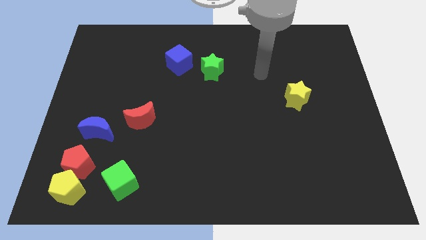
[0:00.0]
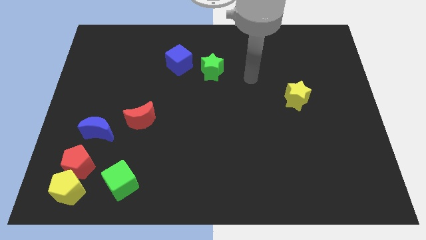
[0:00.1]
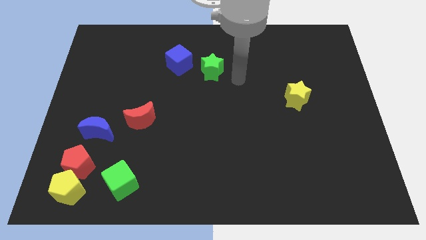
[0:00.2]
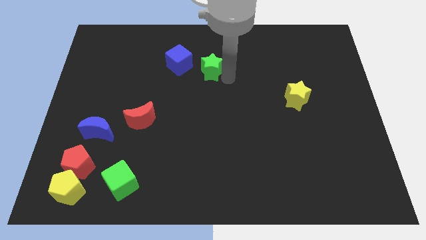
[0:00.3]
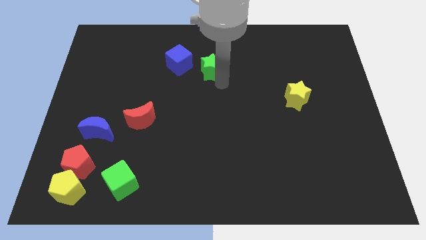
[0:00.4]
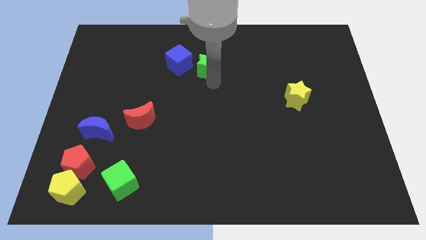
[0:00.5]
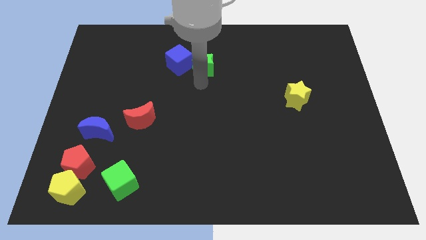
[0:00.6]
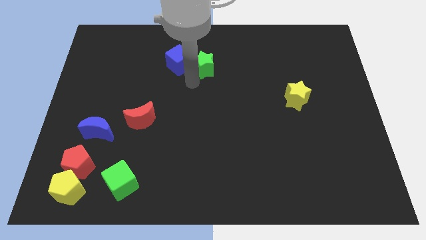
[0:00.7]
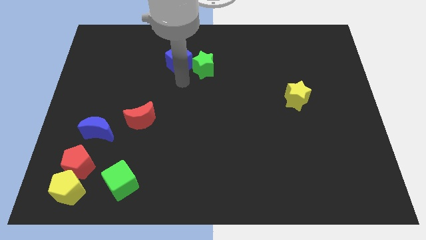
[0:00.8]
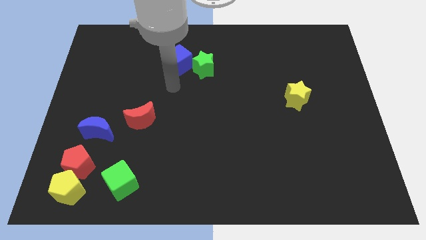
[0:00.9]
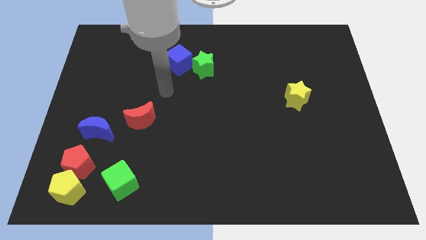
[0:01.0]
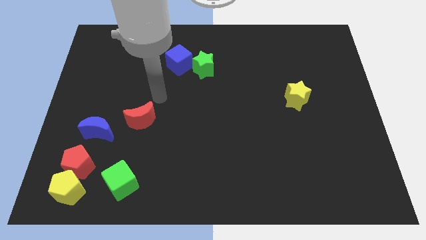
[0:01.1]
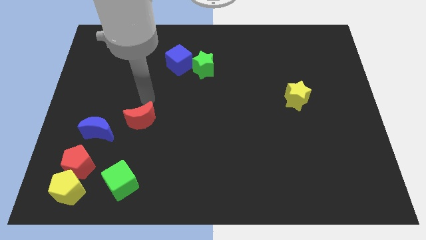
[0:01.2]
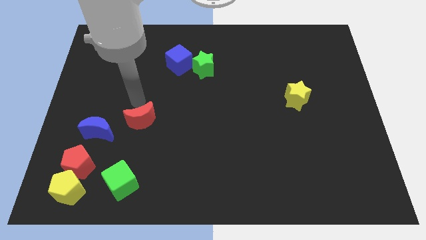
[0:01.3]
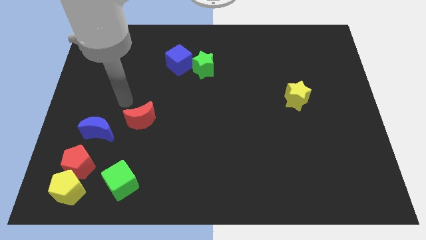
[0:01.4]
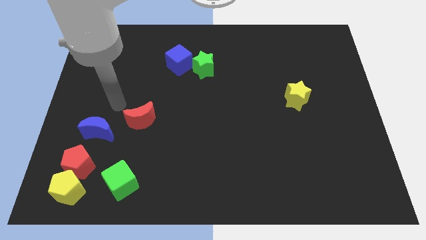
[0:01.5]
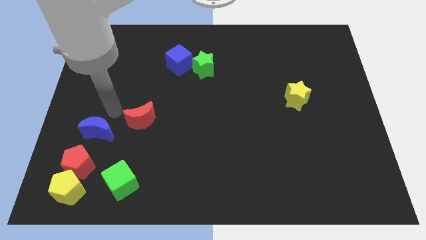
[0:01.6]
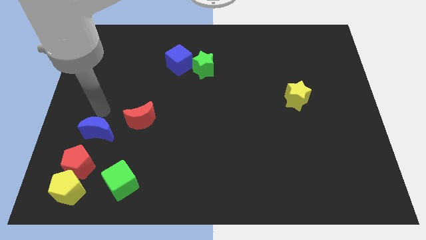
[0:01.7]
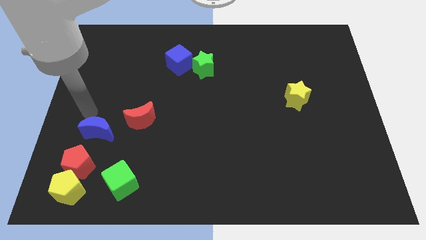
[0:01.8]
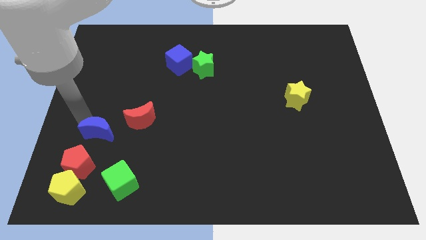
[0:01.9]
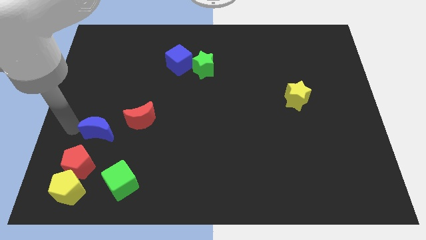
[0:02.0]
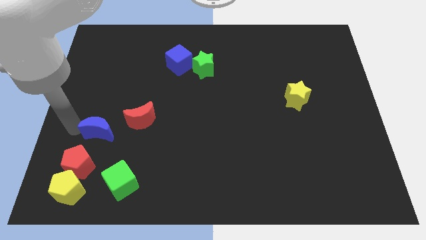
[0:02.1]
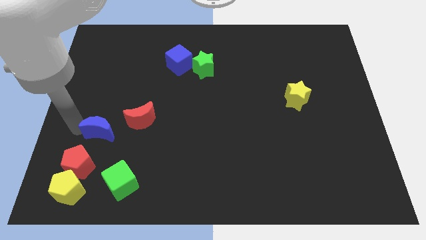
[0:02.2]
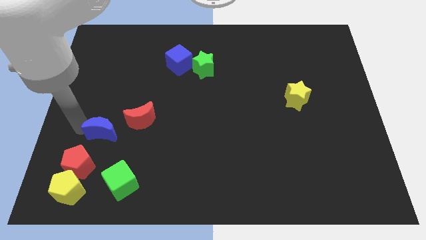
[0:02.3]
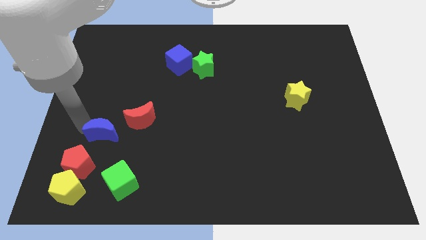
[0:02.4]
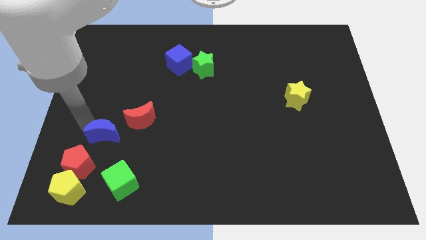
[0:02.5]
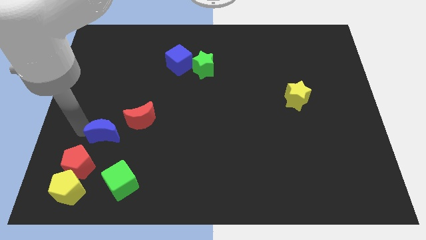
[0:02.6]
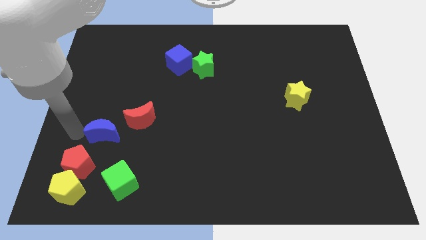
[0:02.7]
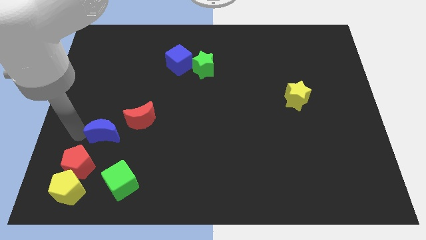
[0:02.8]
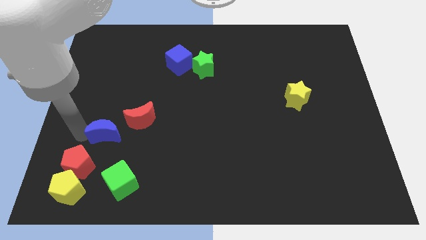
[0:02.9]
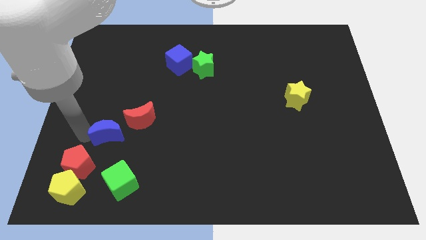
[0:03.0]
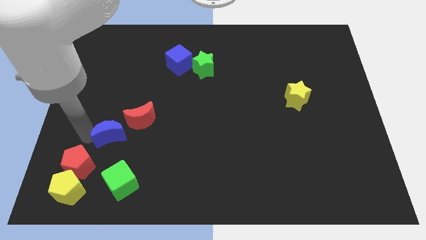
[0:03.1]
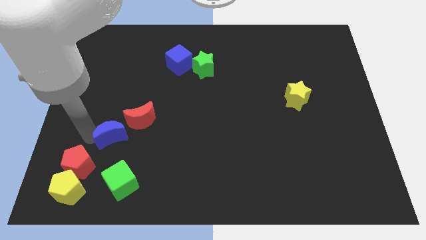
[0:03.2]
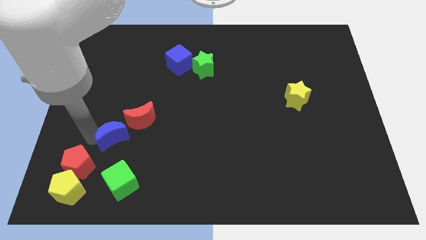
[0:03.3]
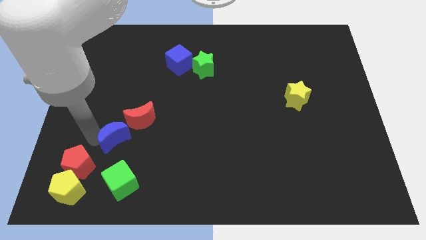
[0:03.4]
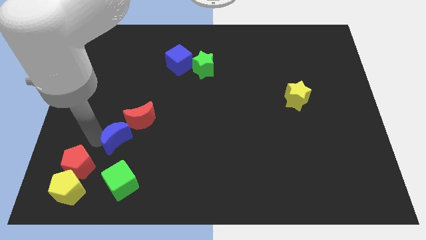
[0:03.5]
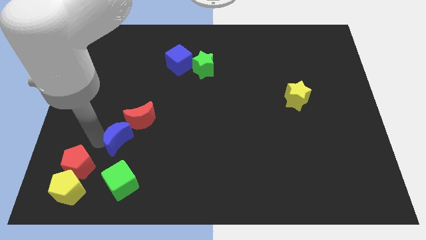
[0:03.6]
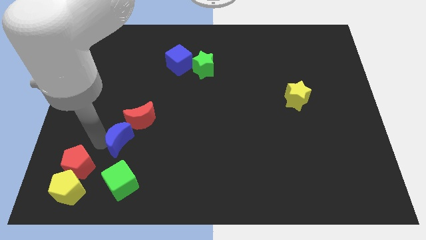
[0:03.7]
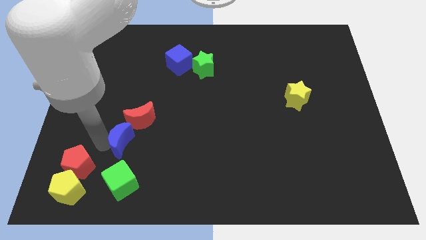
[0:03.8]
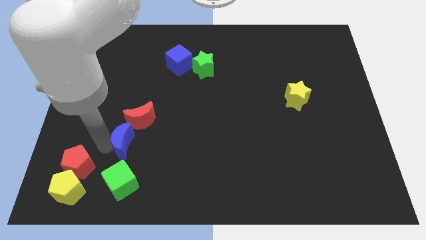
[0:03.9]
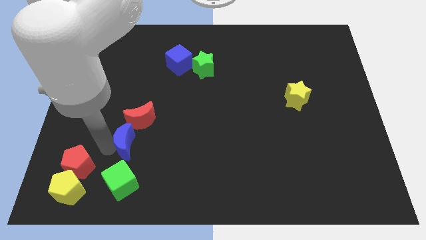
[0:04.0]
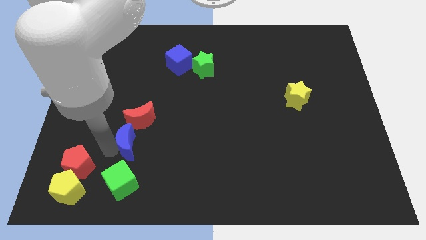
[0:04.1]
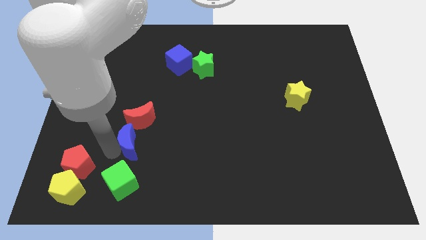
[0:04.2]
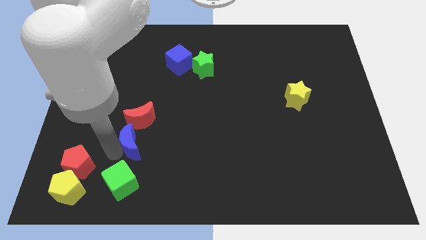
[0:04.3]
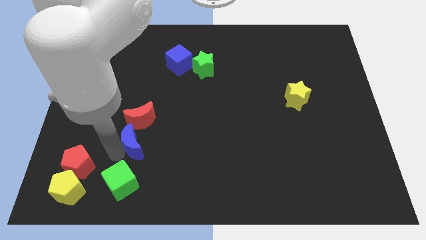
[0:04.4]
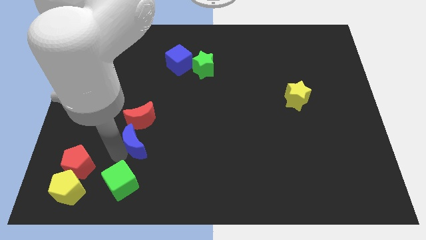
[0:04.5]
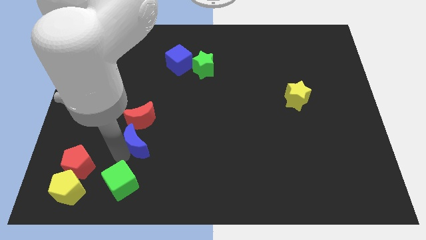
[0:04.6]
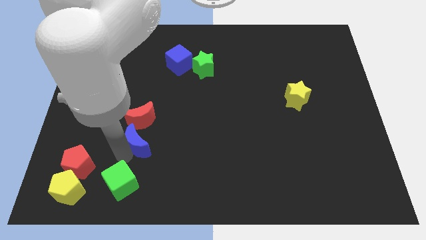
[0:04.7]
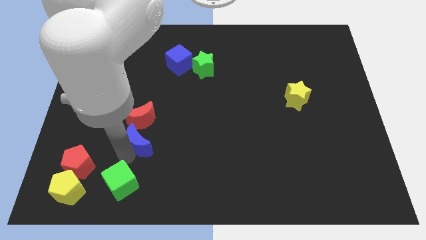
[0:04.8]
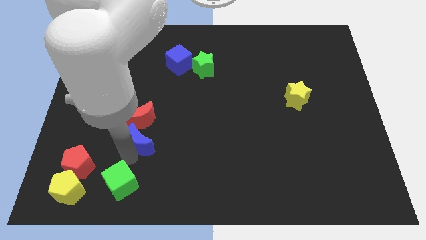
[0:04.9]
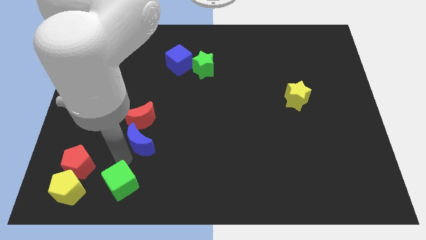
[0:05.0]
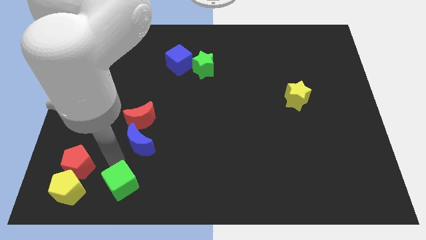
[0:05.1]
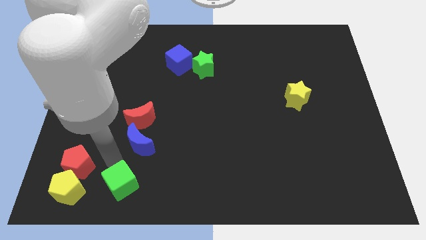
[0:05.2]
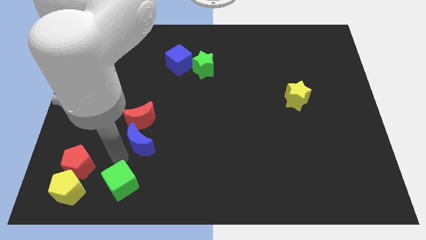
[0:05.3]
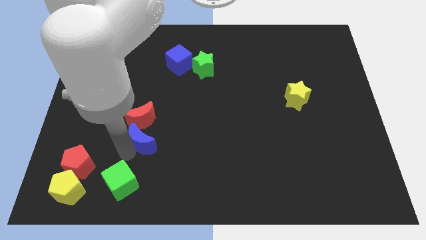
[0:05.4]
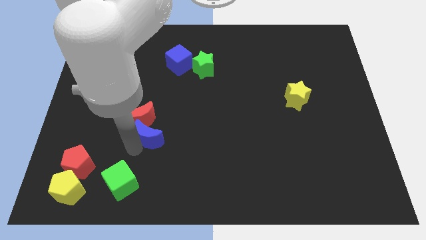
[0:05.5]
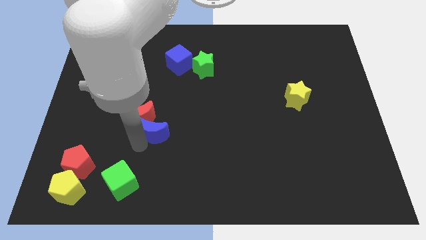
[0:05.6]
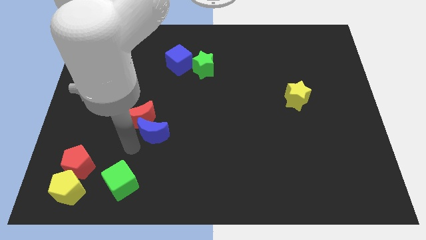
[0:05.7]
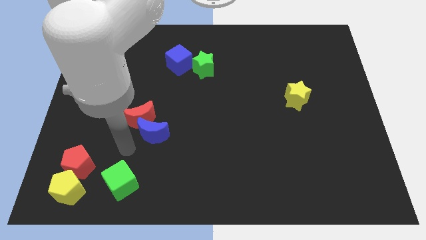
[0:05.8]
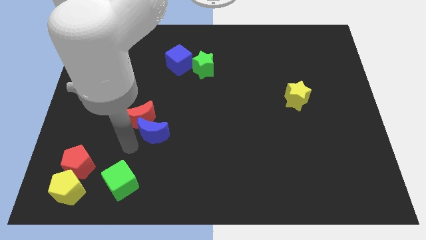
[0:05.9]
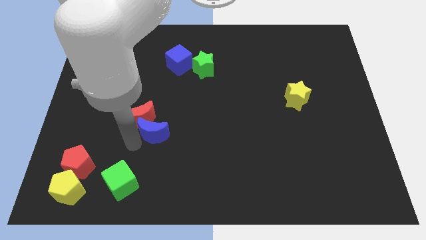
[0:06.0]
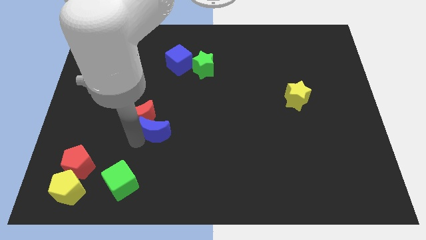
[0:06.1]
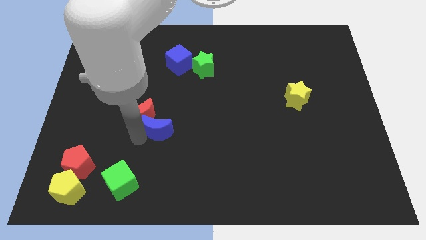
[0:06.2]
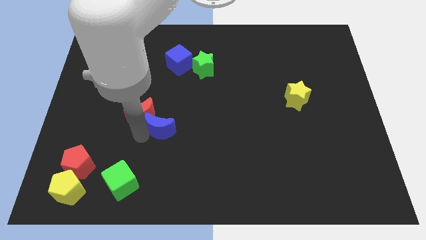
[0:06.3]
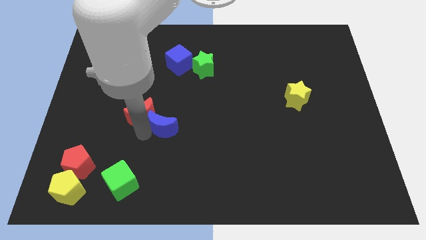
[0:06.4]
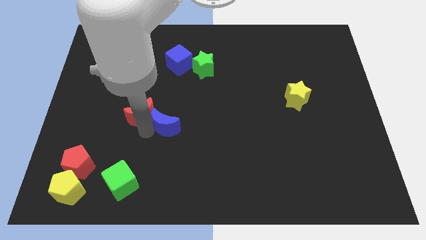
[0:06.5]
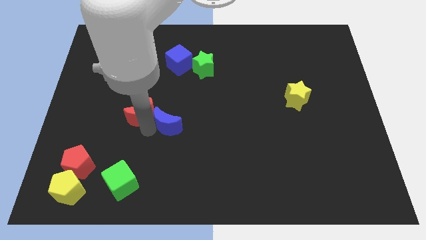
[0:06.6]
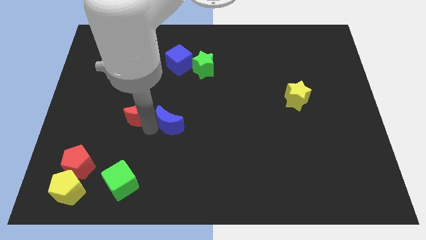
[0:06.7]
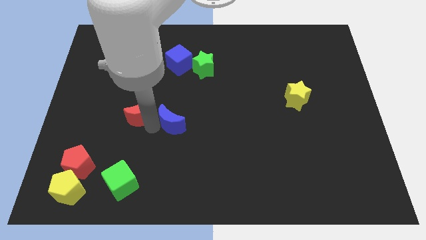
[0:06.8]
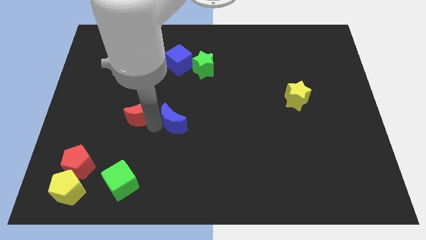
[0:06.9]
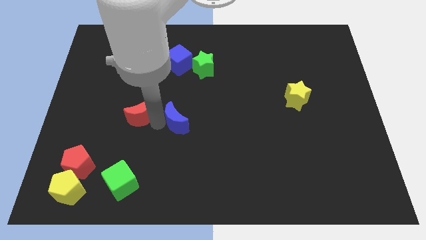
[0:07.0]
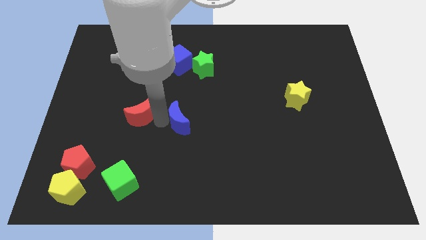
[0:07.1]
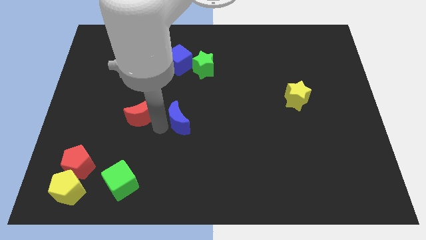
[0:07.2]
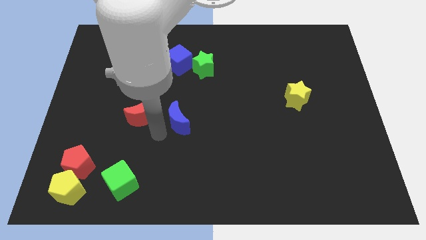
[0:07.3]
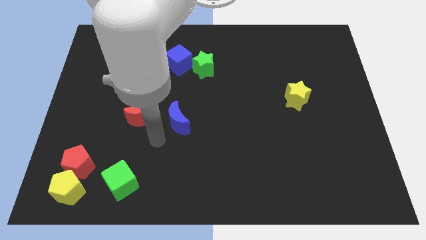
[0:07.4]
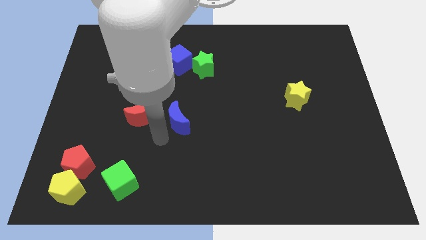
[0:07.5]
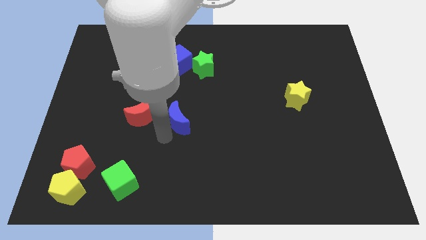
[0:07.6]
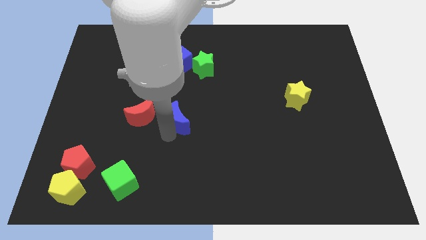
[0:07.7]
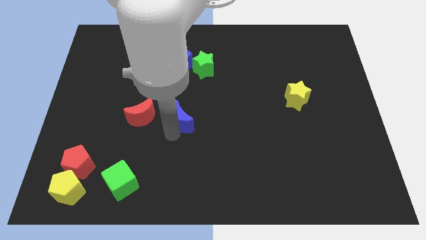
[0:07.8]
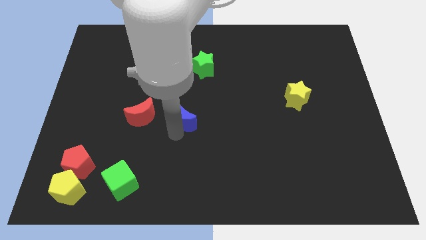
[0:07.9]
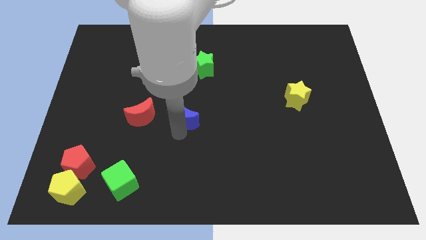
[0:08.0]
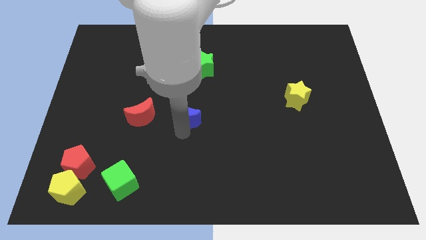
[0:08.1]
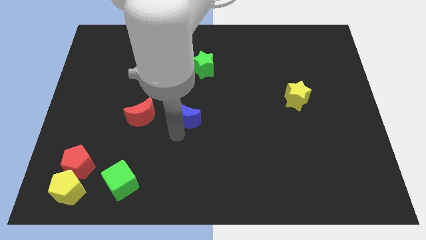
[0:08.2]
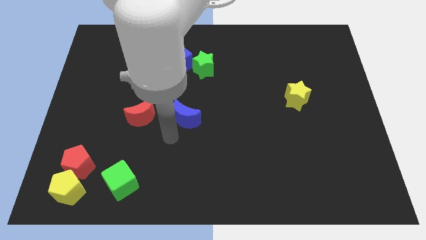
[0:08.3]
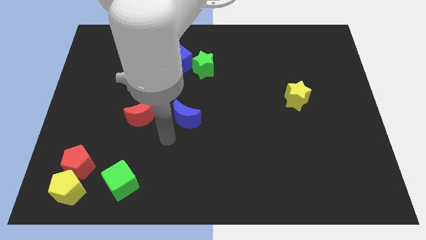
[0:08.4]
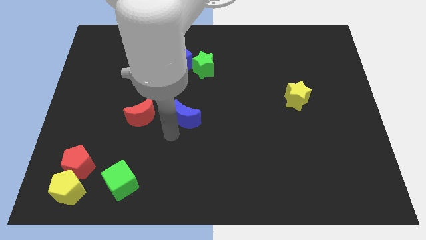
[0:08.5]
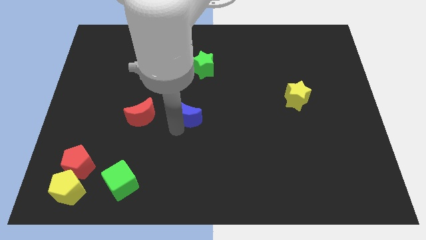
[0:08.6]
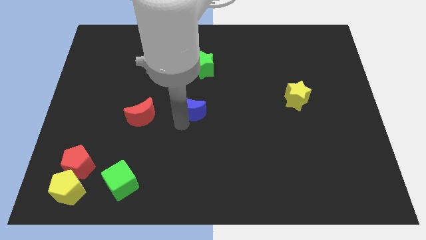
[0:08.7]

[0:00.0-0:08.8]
push the blue moon to the bottom of the green star
